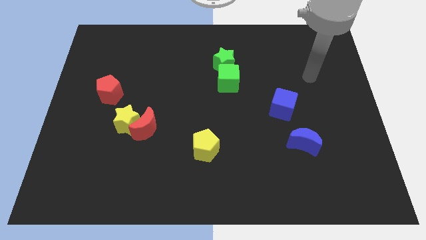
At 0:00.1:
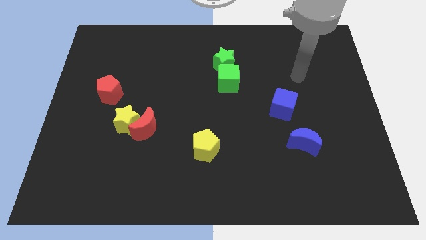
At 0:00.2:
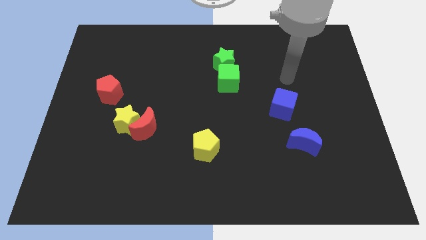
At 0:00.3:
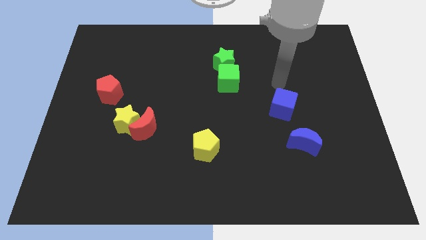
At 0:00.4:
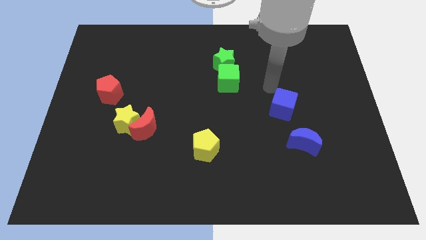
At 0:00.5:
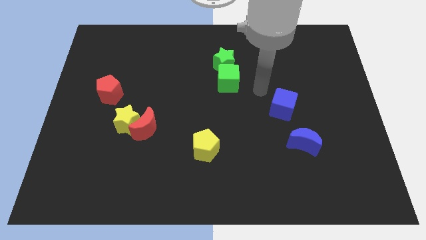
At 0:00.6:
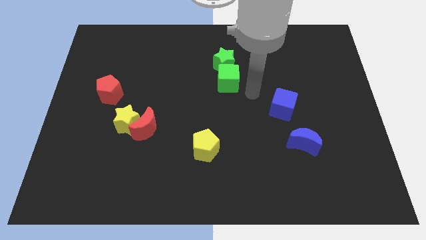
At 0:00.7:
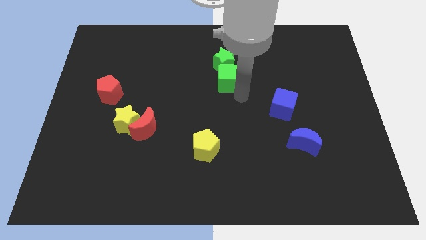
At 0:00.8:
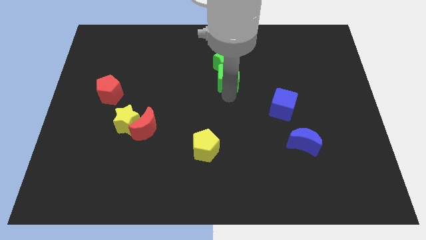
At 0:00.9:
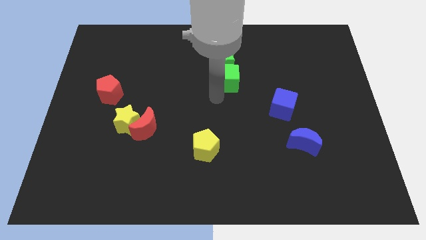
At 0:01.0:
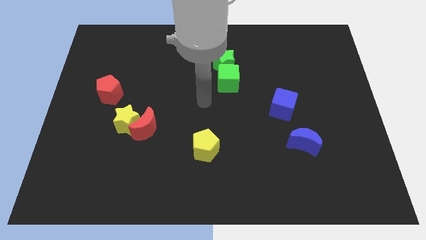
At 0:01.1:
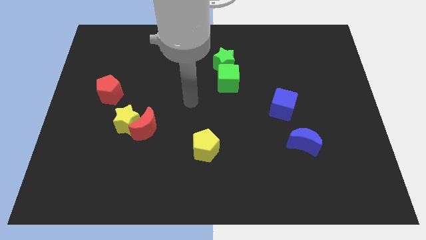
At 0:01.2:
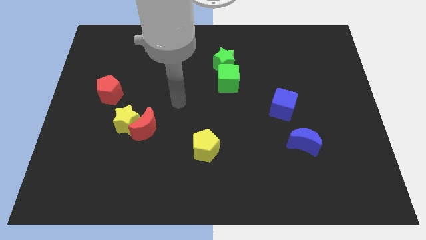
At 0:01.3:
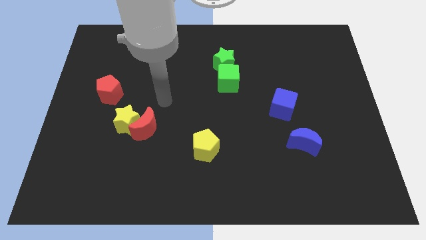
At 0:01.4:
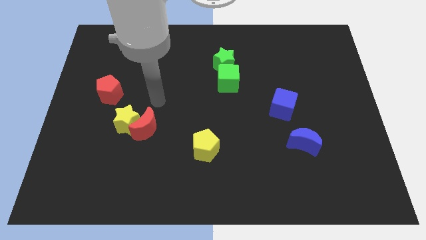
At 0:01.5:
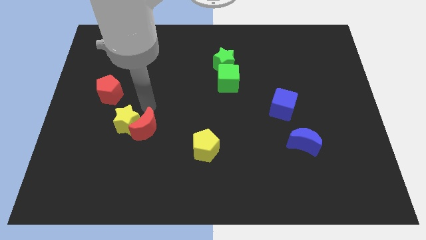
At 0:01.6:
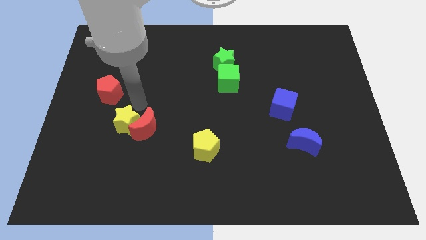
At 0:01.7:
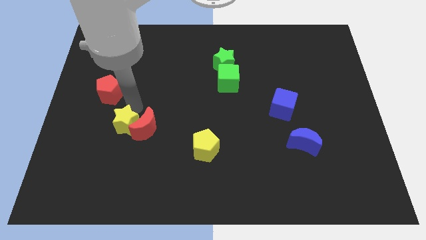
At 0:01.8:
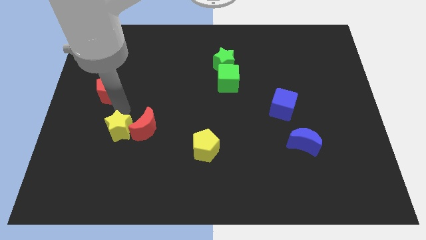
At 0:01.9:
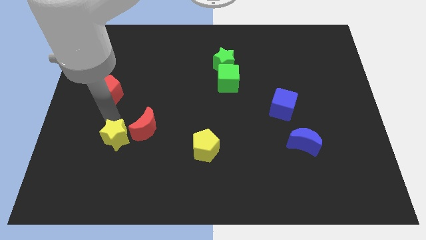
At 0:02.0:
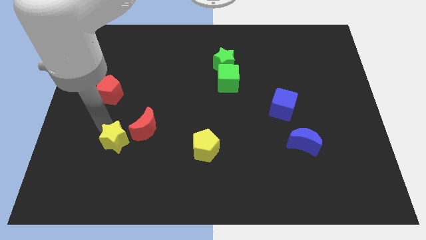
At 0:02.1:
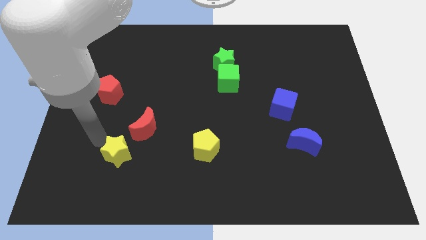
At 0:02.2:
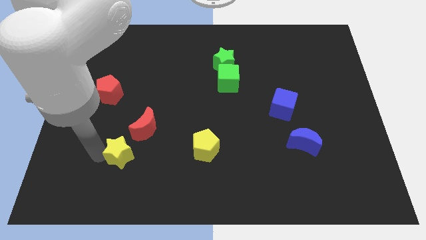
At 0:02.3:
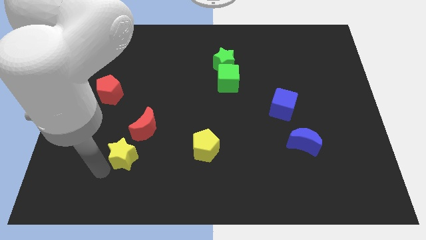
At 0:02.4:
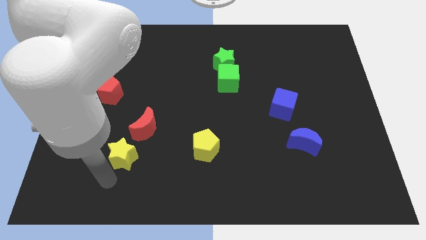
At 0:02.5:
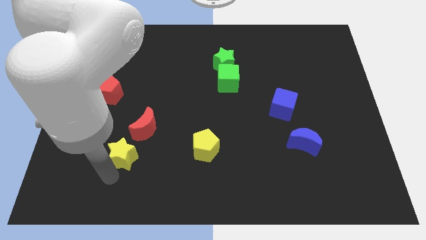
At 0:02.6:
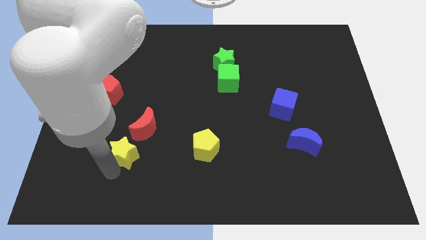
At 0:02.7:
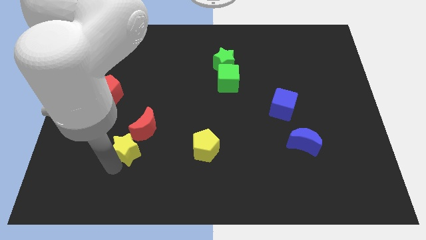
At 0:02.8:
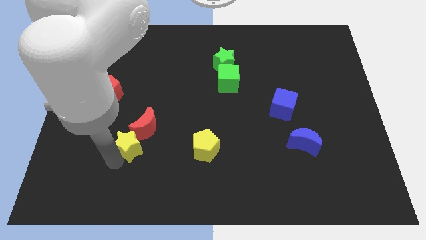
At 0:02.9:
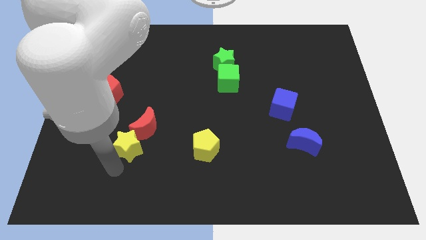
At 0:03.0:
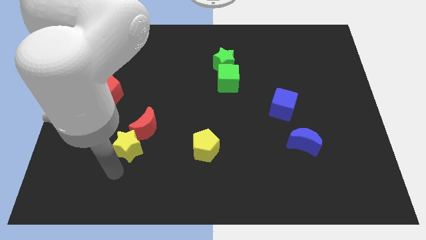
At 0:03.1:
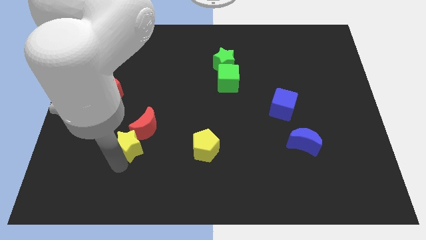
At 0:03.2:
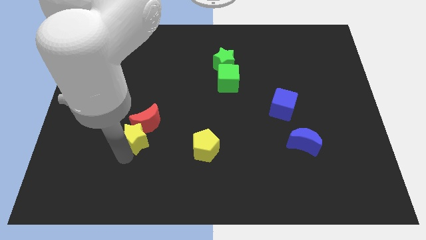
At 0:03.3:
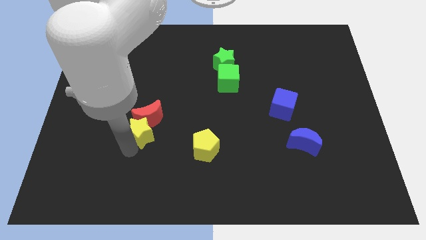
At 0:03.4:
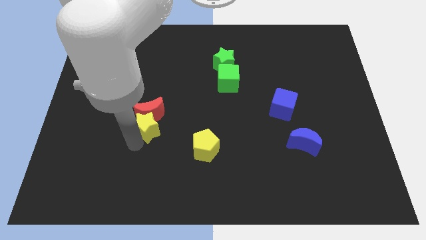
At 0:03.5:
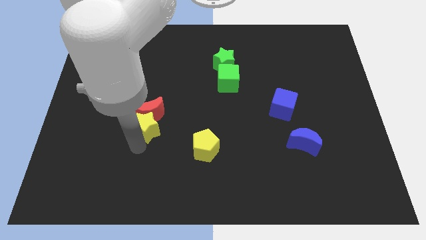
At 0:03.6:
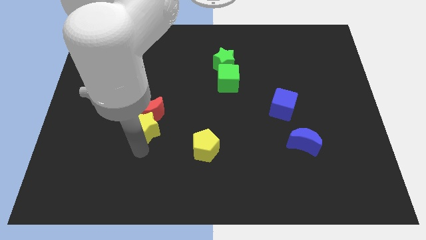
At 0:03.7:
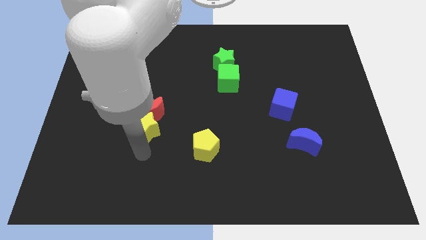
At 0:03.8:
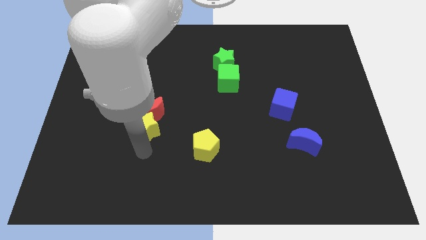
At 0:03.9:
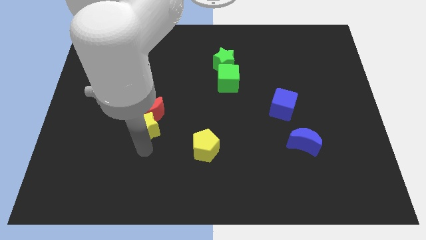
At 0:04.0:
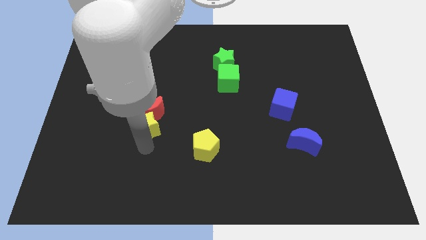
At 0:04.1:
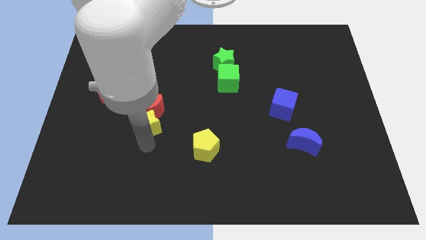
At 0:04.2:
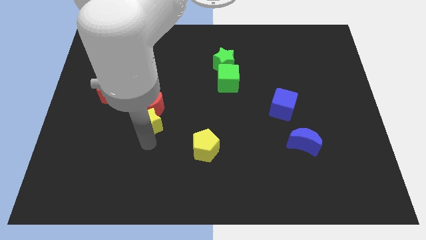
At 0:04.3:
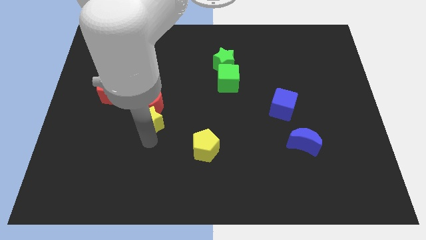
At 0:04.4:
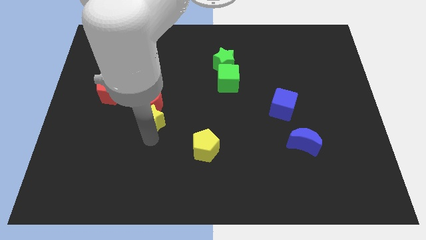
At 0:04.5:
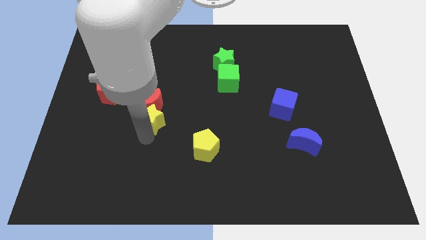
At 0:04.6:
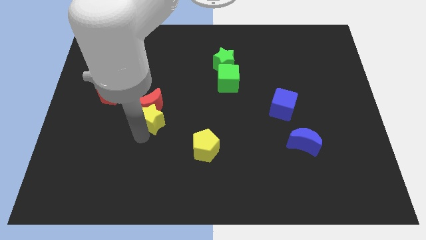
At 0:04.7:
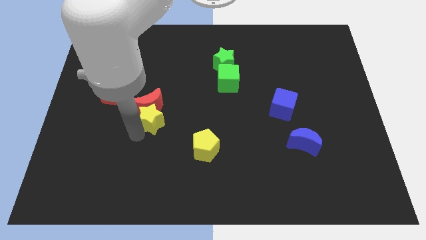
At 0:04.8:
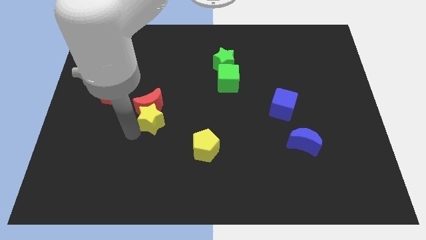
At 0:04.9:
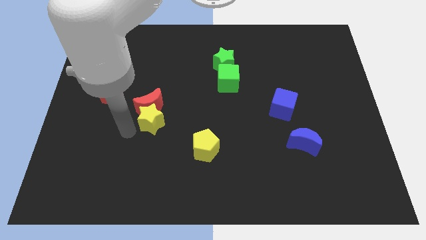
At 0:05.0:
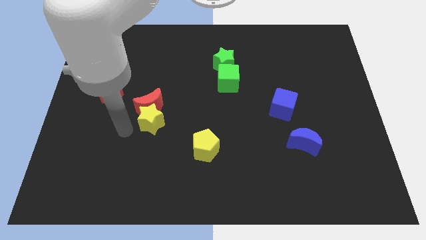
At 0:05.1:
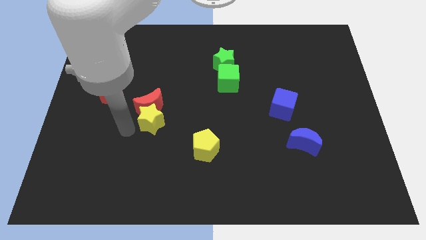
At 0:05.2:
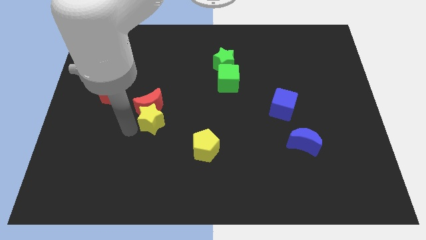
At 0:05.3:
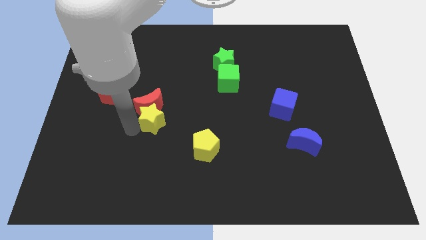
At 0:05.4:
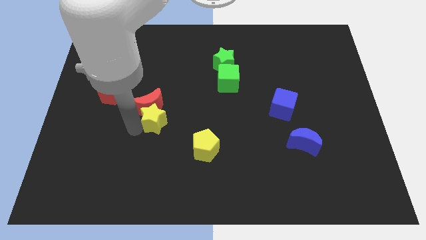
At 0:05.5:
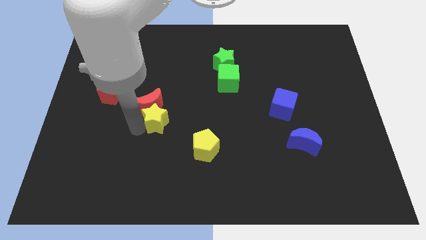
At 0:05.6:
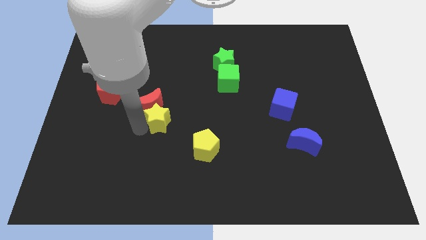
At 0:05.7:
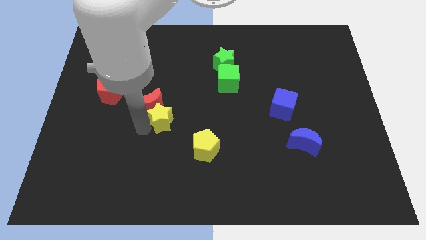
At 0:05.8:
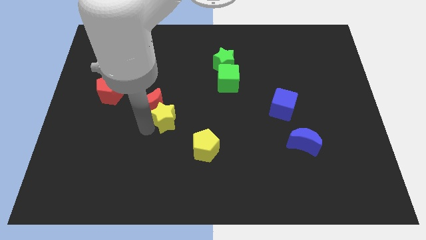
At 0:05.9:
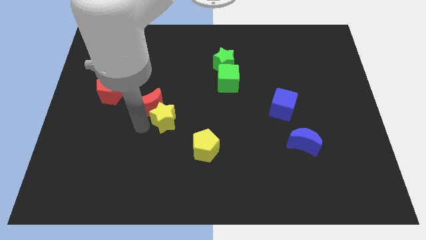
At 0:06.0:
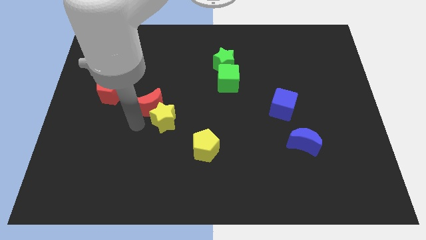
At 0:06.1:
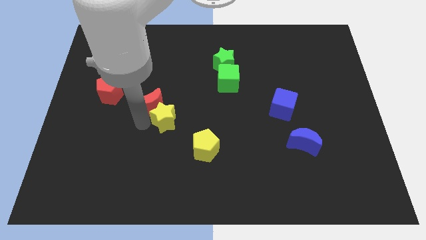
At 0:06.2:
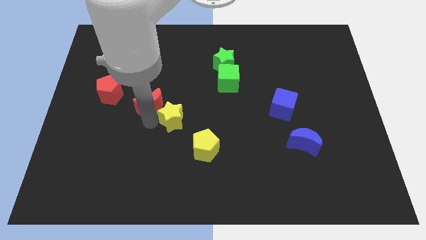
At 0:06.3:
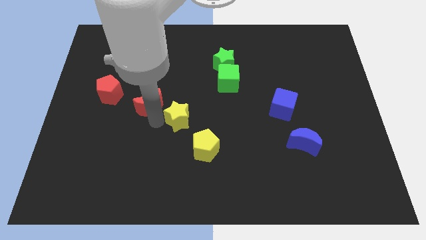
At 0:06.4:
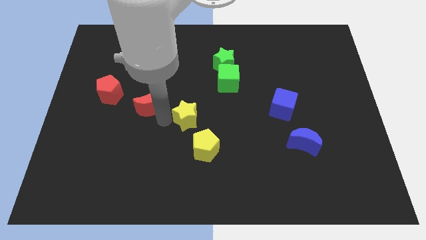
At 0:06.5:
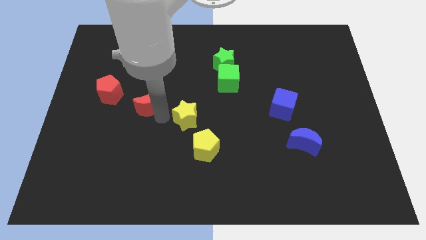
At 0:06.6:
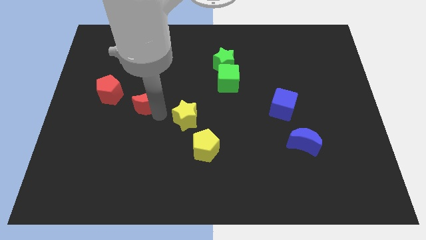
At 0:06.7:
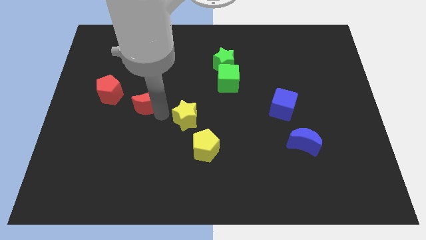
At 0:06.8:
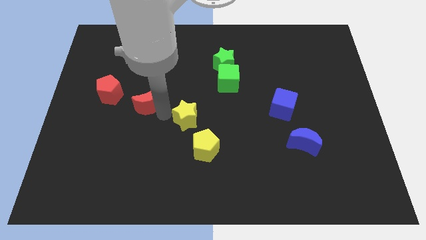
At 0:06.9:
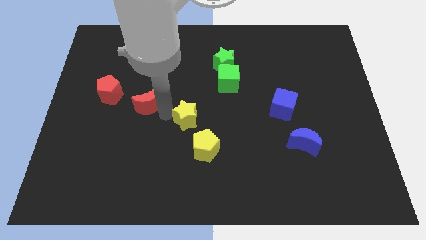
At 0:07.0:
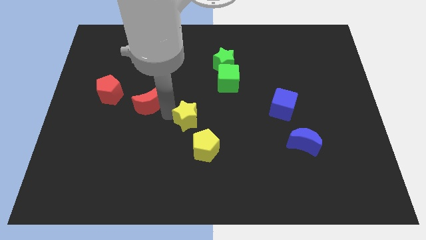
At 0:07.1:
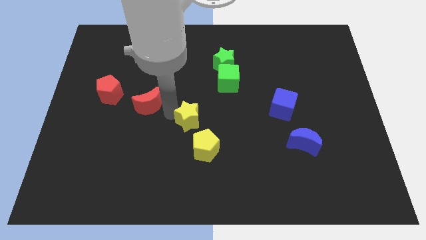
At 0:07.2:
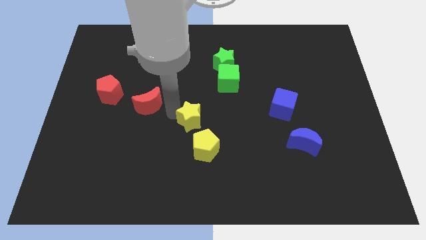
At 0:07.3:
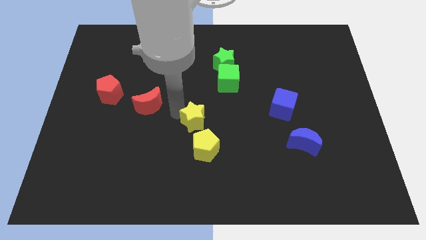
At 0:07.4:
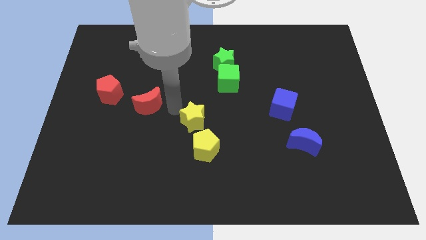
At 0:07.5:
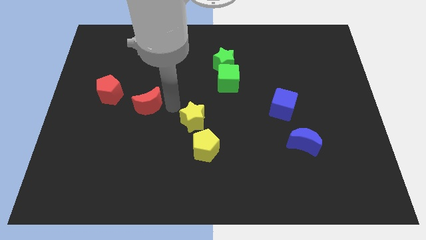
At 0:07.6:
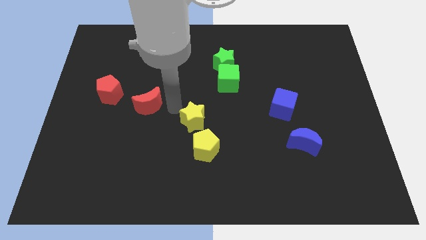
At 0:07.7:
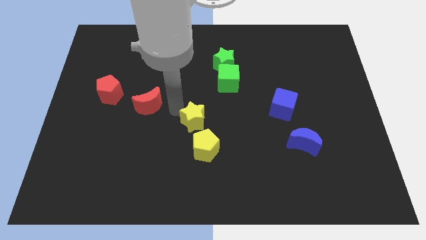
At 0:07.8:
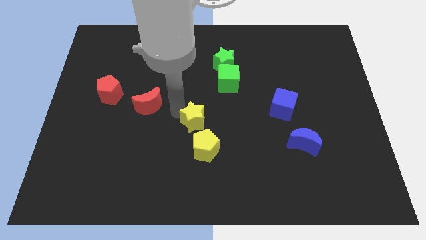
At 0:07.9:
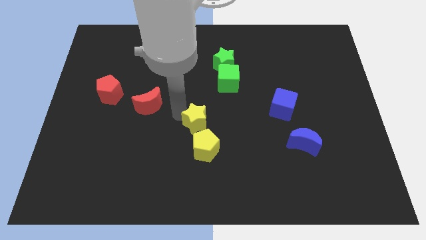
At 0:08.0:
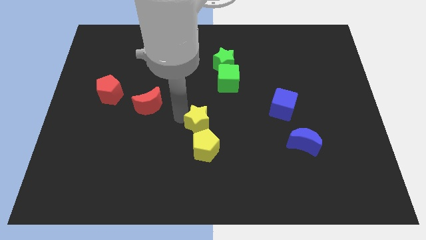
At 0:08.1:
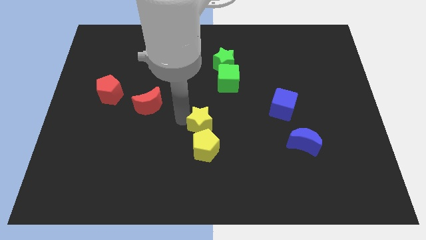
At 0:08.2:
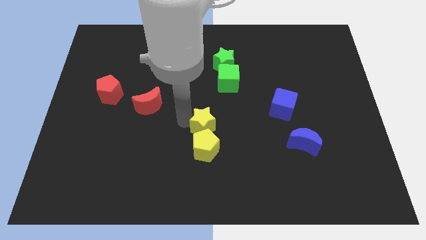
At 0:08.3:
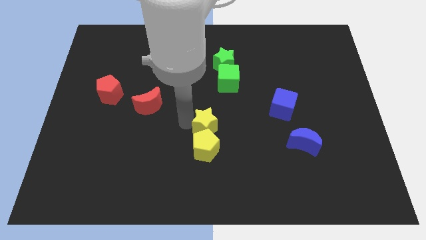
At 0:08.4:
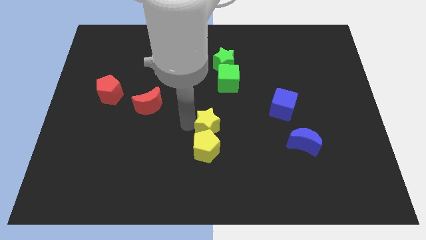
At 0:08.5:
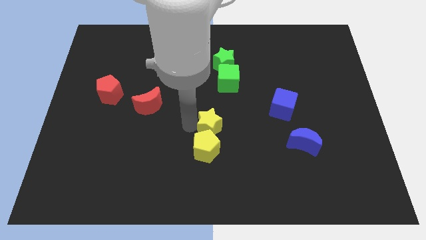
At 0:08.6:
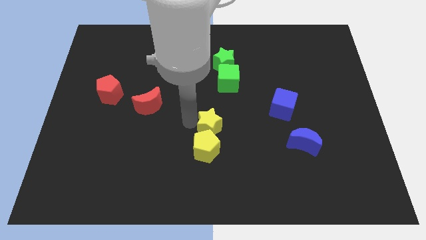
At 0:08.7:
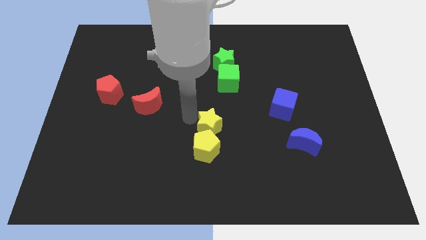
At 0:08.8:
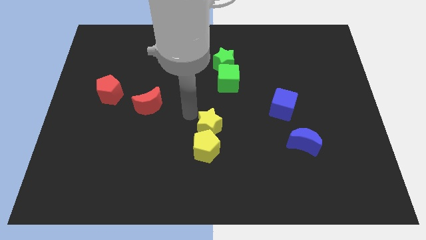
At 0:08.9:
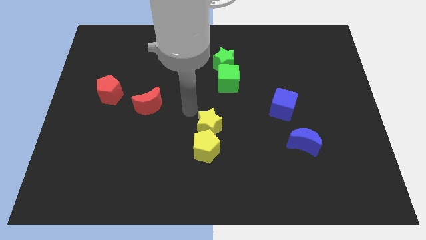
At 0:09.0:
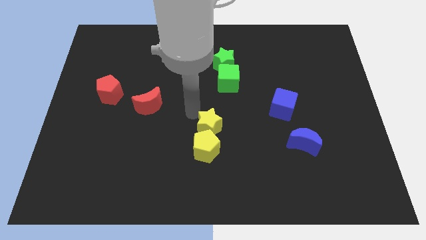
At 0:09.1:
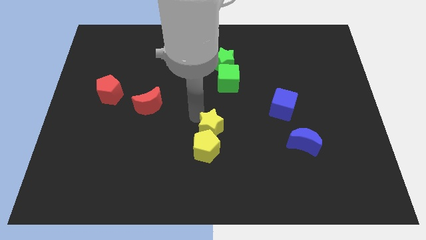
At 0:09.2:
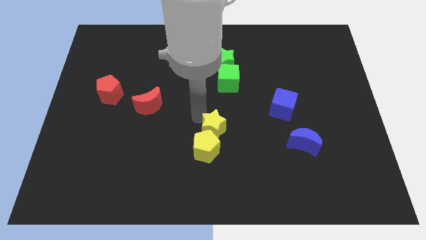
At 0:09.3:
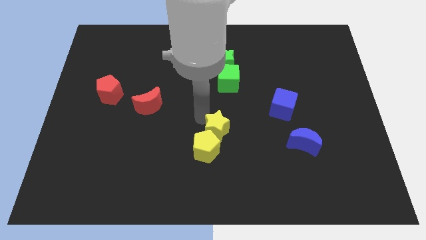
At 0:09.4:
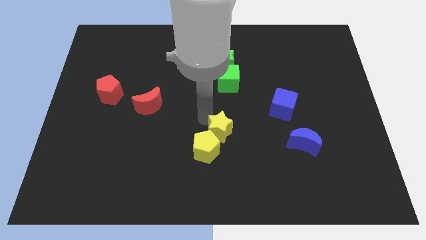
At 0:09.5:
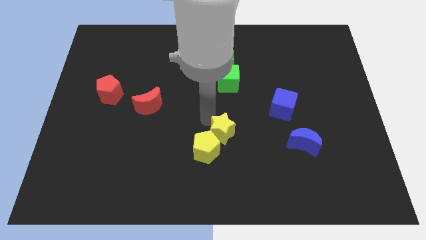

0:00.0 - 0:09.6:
slide the yellow star right of the yellow pentagon
